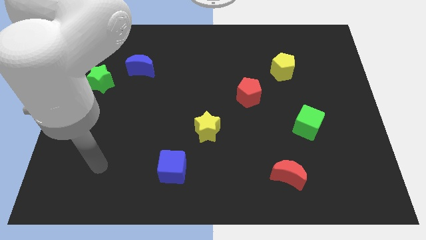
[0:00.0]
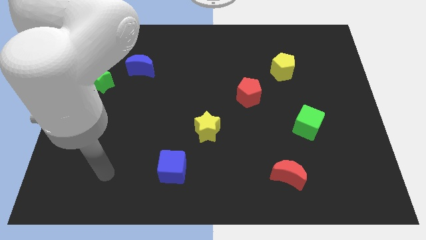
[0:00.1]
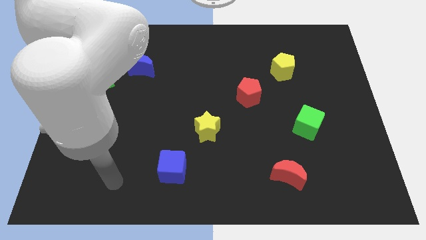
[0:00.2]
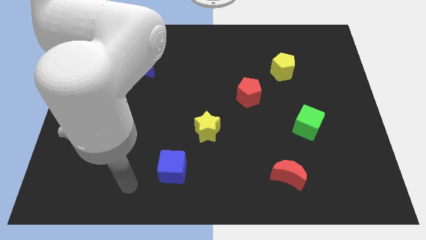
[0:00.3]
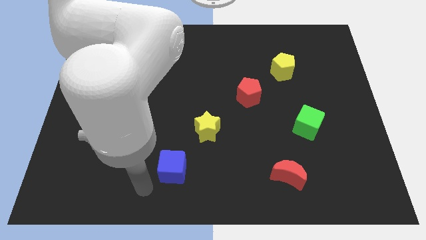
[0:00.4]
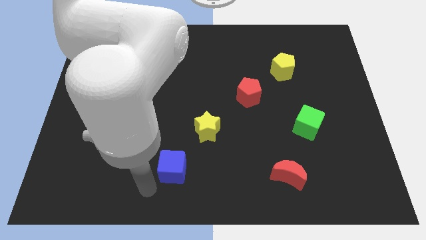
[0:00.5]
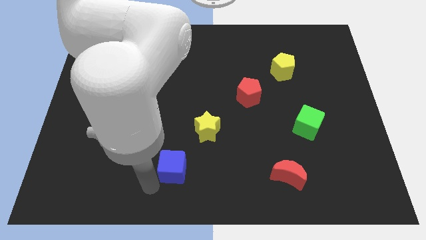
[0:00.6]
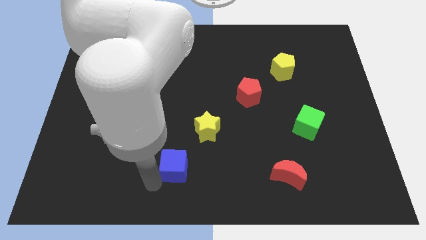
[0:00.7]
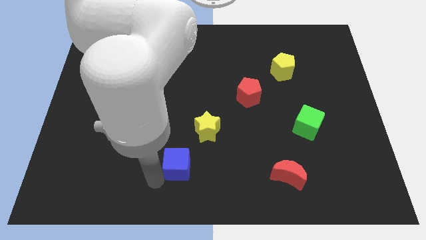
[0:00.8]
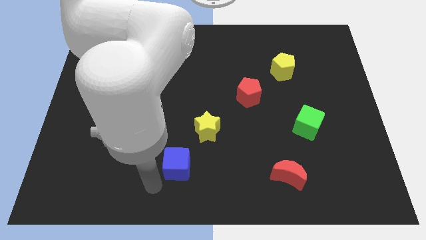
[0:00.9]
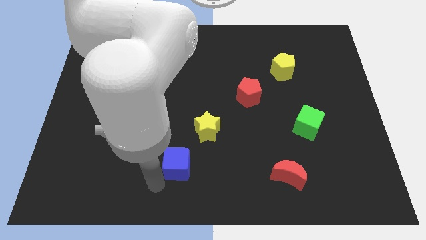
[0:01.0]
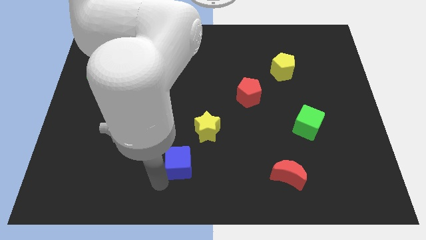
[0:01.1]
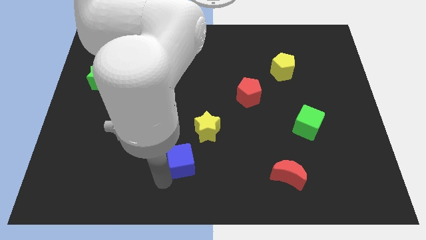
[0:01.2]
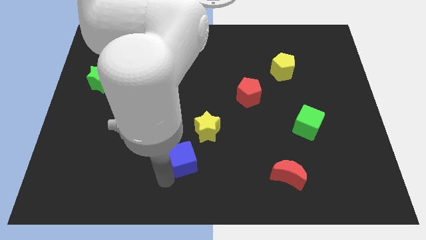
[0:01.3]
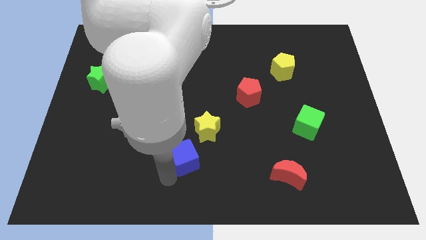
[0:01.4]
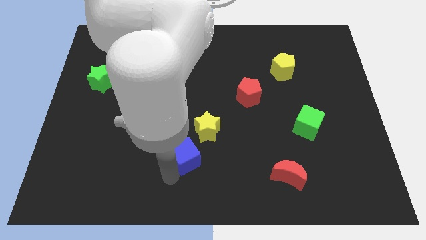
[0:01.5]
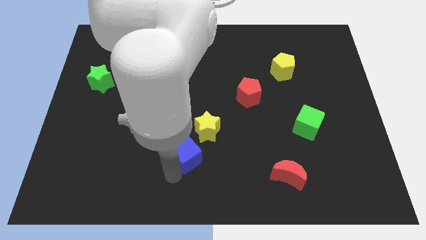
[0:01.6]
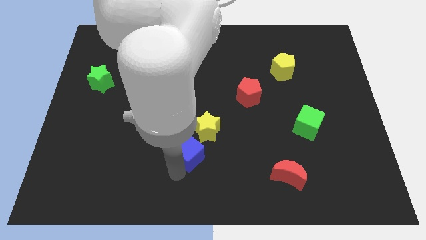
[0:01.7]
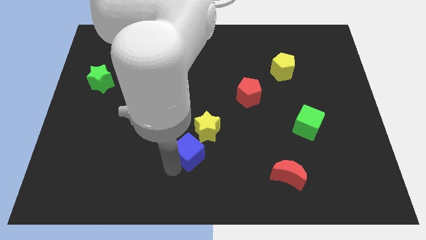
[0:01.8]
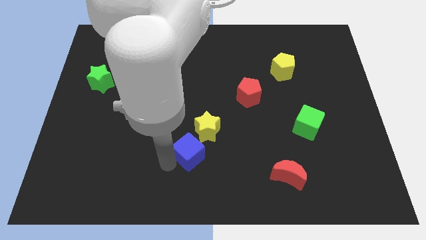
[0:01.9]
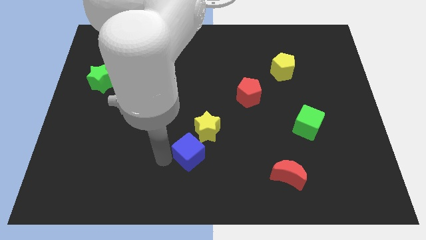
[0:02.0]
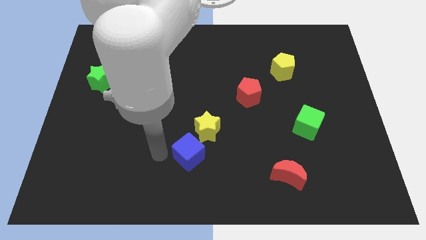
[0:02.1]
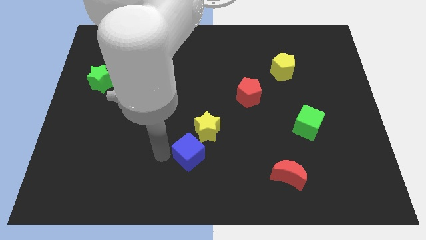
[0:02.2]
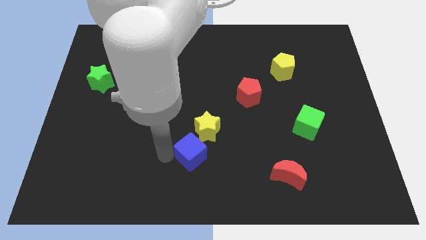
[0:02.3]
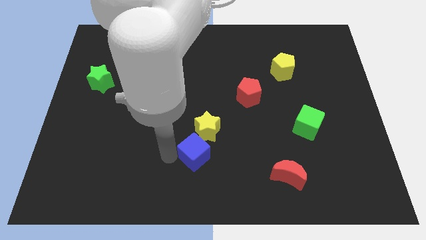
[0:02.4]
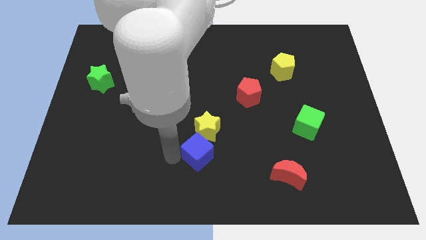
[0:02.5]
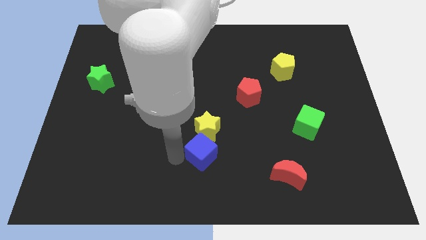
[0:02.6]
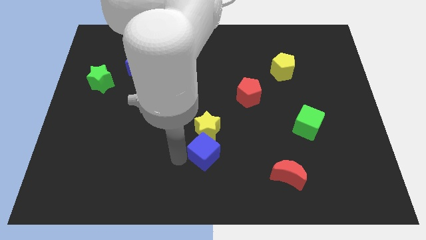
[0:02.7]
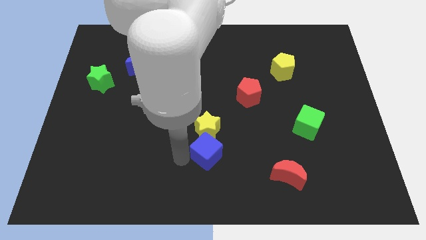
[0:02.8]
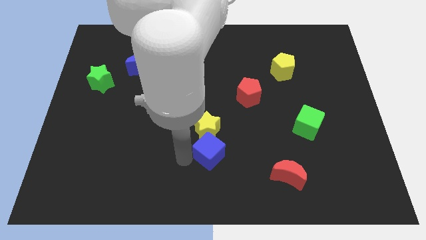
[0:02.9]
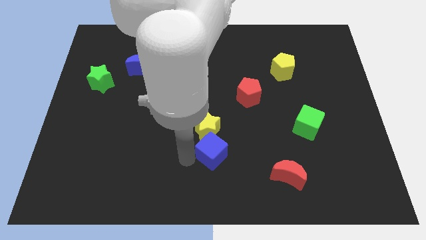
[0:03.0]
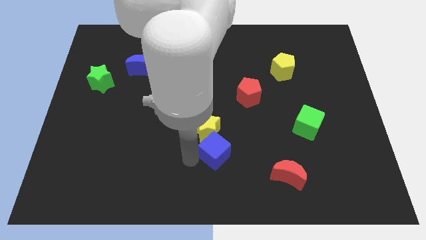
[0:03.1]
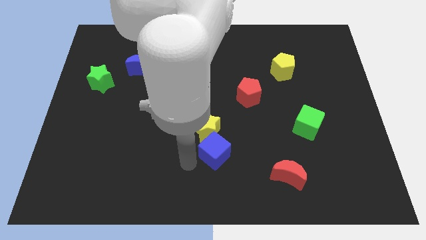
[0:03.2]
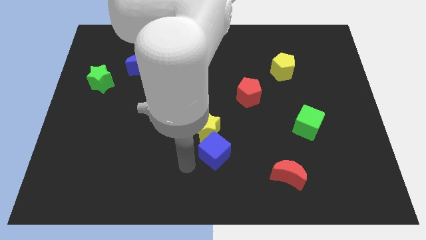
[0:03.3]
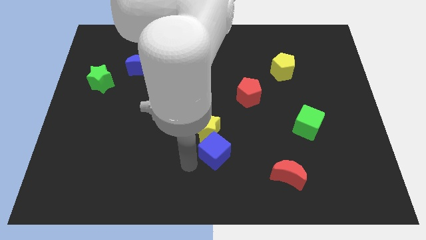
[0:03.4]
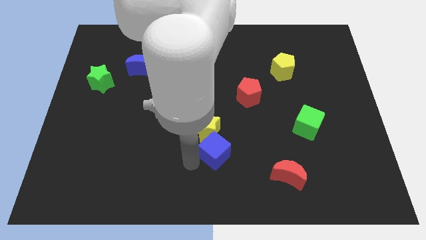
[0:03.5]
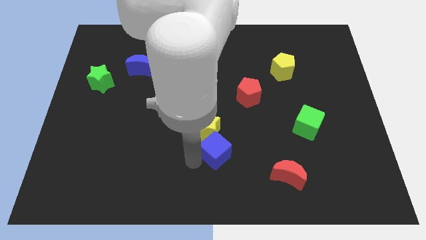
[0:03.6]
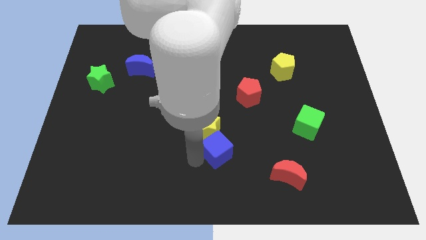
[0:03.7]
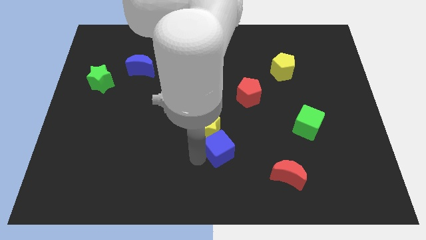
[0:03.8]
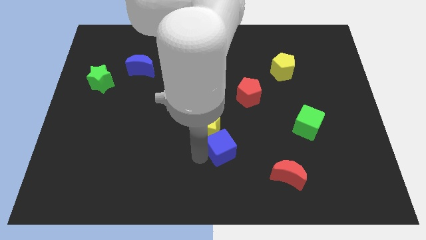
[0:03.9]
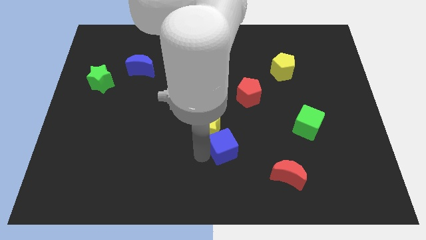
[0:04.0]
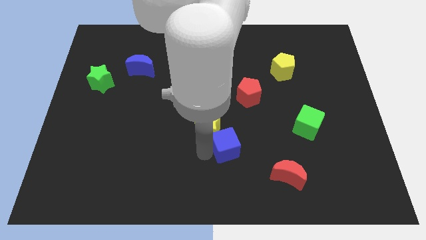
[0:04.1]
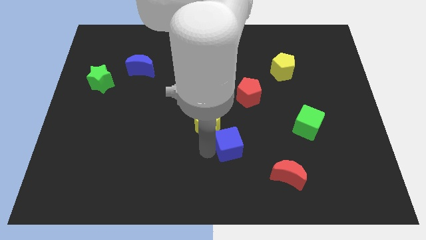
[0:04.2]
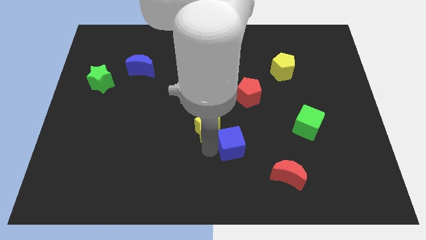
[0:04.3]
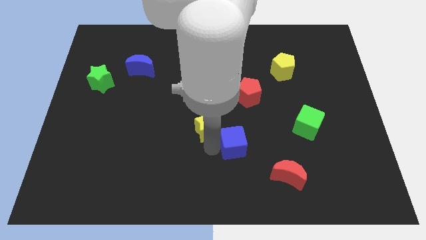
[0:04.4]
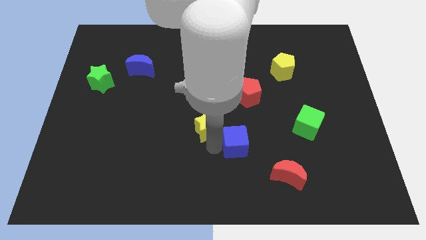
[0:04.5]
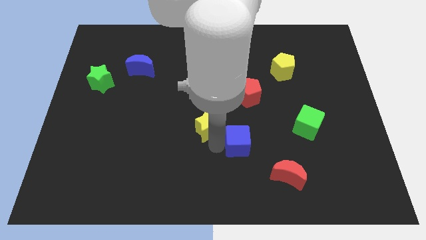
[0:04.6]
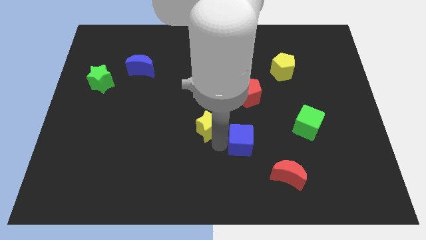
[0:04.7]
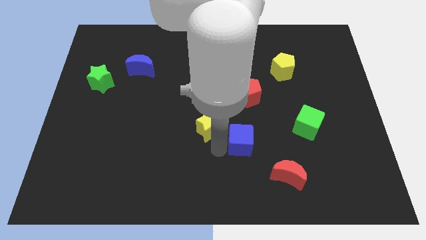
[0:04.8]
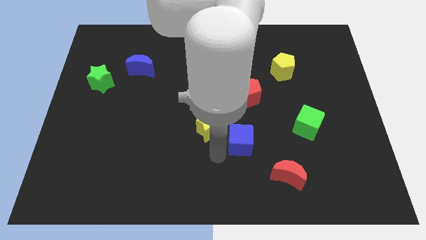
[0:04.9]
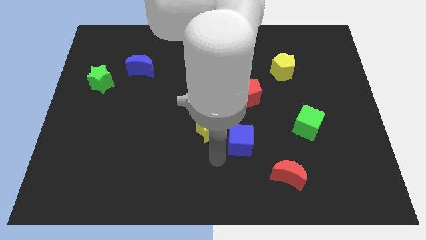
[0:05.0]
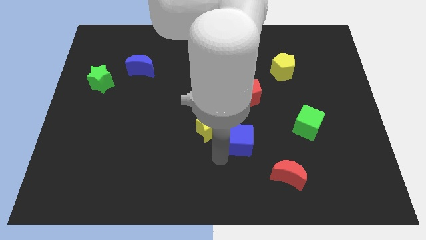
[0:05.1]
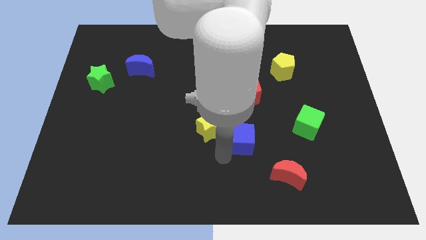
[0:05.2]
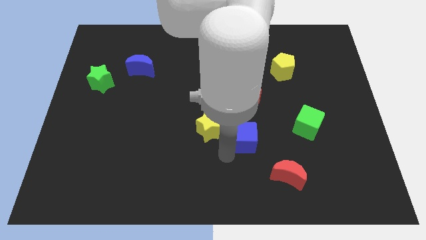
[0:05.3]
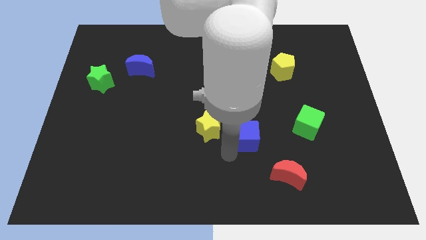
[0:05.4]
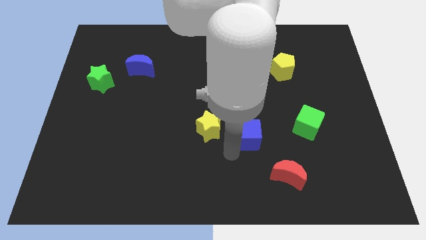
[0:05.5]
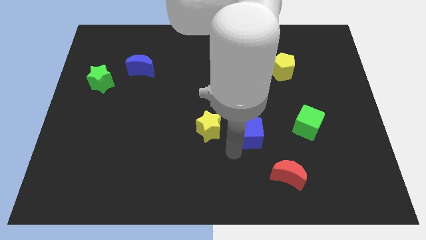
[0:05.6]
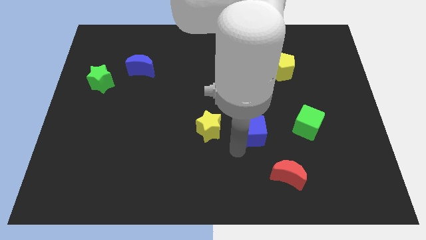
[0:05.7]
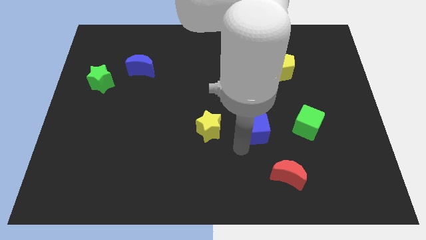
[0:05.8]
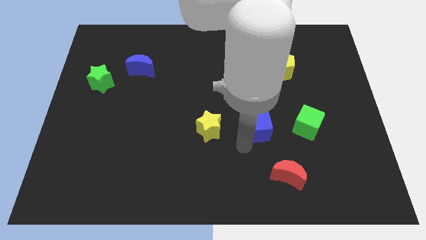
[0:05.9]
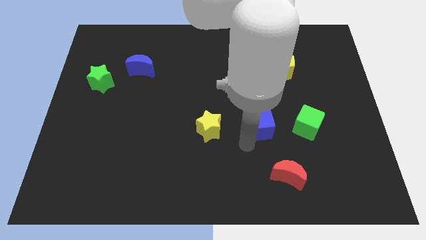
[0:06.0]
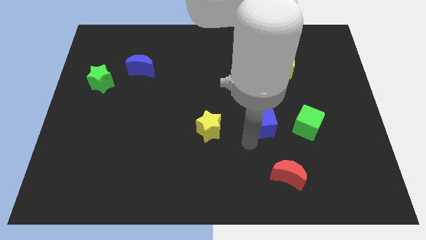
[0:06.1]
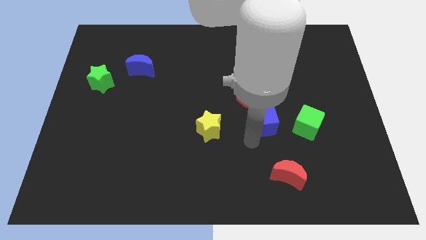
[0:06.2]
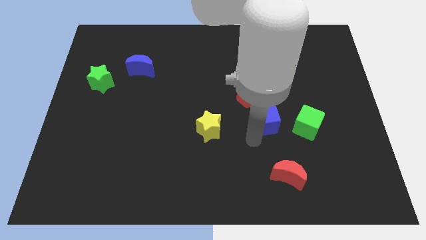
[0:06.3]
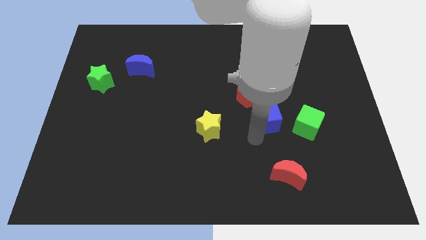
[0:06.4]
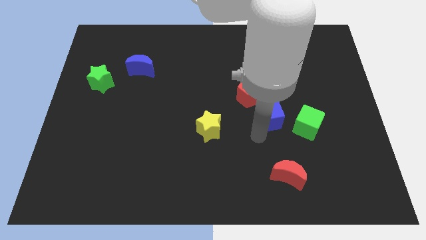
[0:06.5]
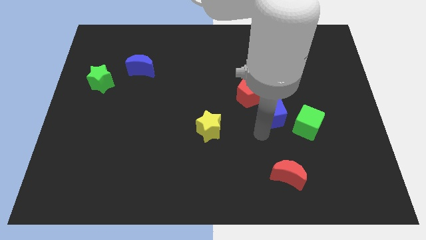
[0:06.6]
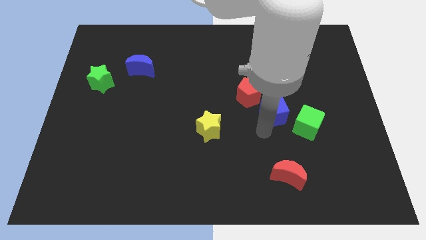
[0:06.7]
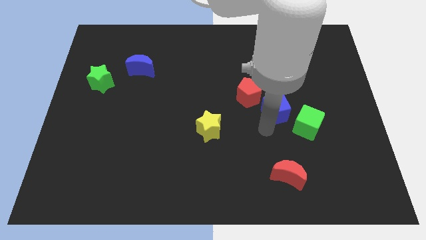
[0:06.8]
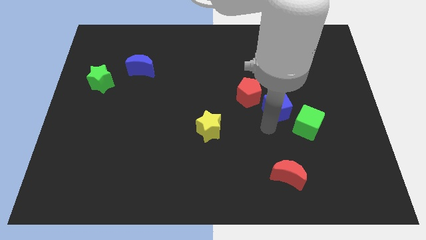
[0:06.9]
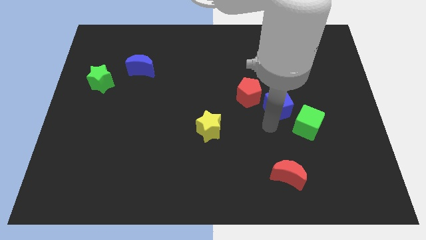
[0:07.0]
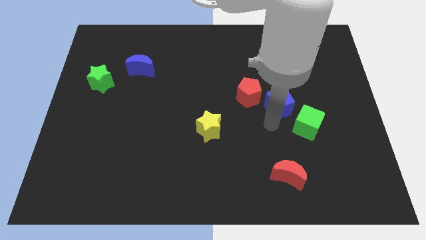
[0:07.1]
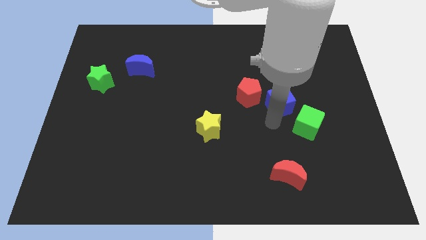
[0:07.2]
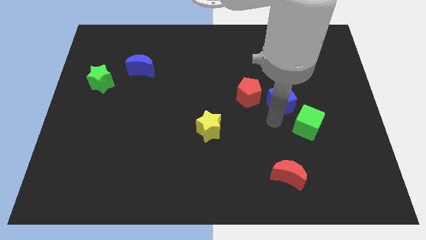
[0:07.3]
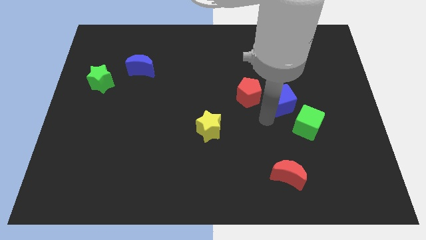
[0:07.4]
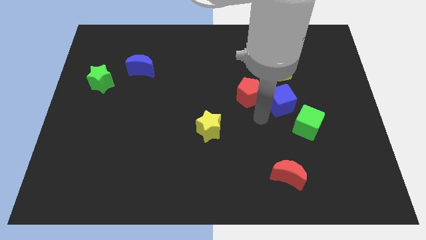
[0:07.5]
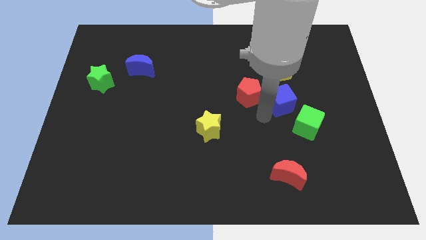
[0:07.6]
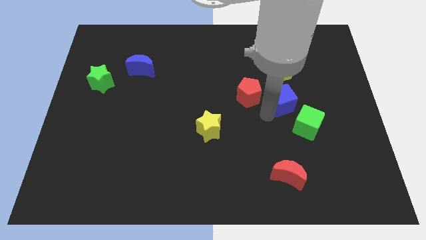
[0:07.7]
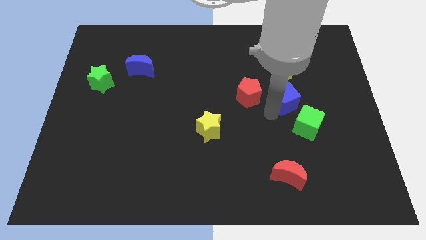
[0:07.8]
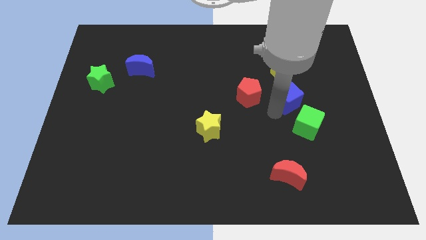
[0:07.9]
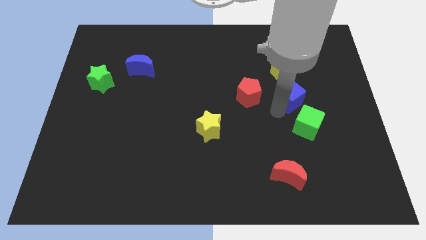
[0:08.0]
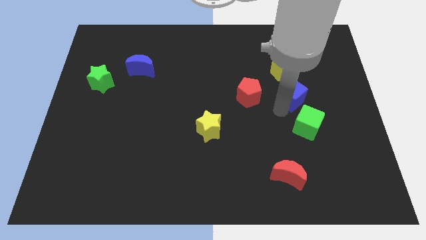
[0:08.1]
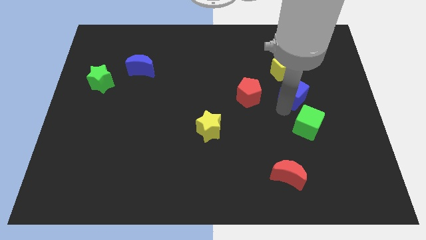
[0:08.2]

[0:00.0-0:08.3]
put the blue cube diagonally down and to the right of the yellow pentagon
